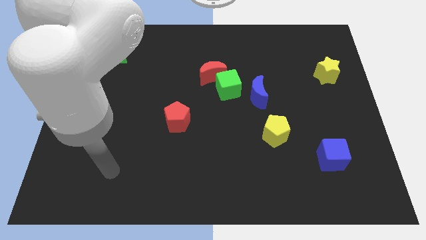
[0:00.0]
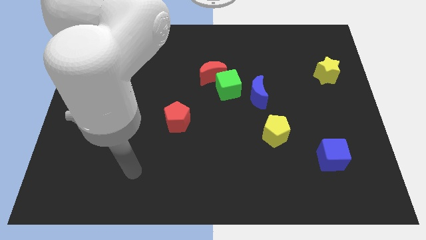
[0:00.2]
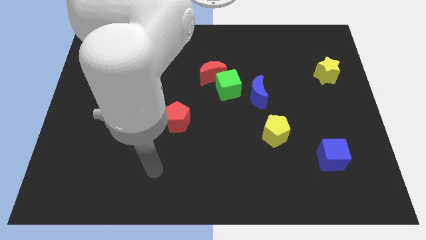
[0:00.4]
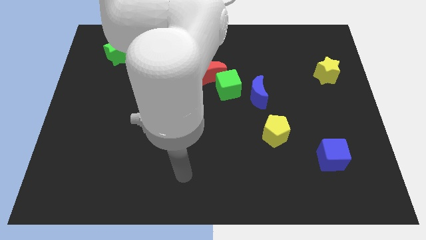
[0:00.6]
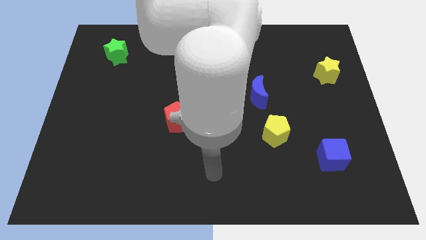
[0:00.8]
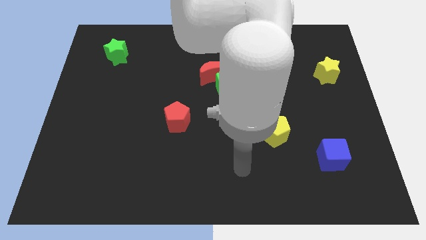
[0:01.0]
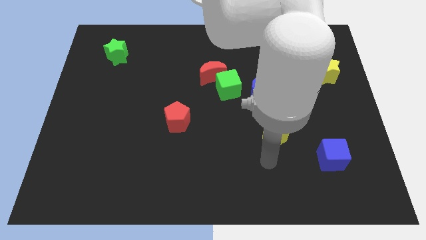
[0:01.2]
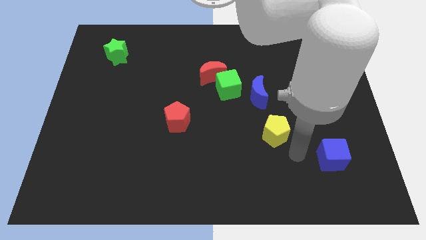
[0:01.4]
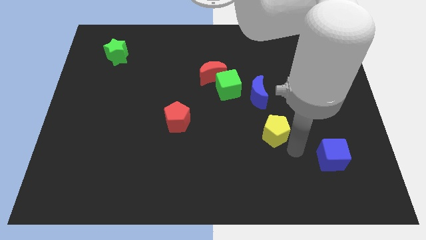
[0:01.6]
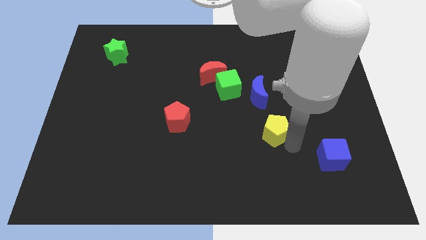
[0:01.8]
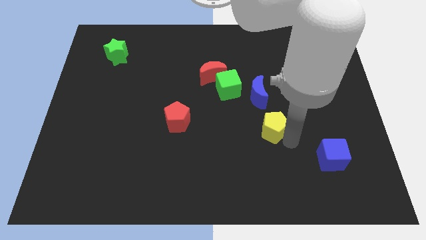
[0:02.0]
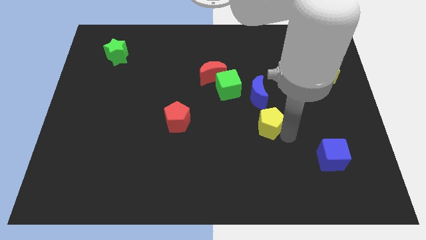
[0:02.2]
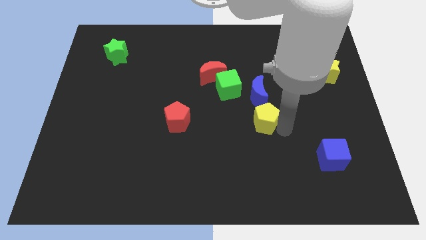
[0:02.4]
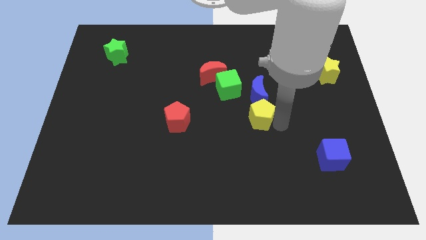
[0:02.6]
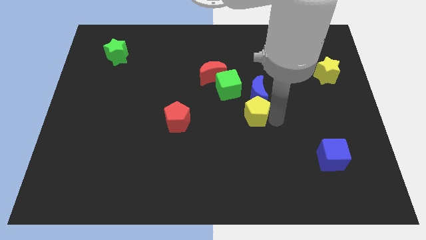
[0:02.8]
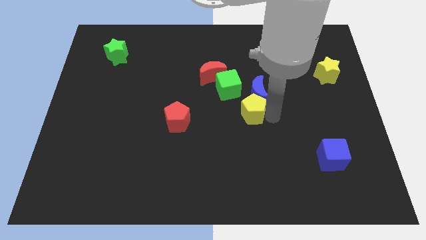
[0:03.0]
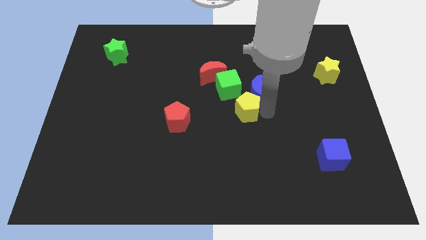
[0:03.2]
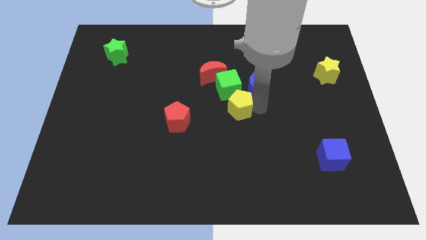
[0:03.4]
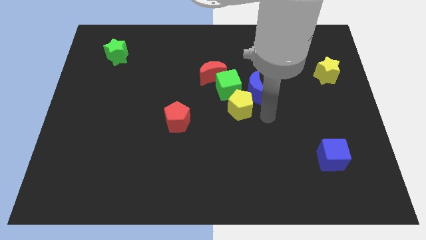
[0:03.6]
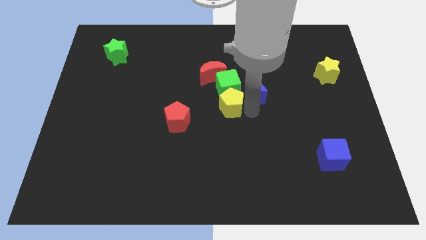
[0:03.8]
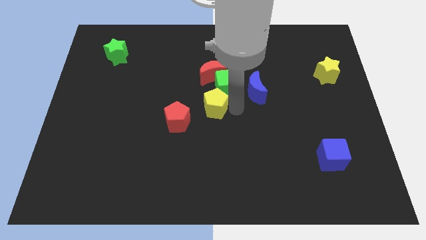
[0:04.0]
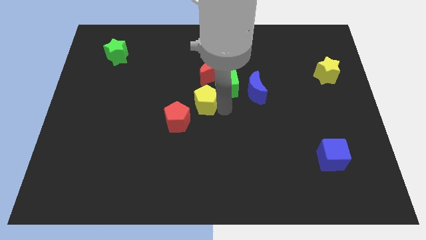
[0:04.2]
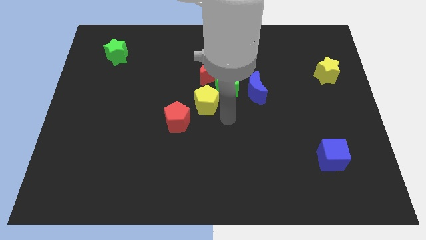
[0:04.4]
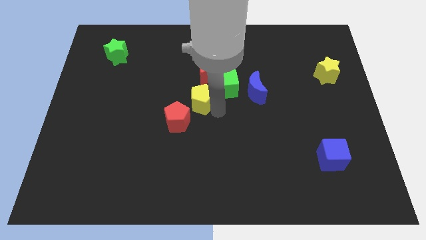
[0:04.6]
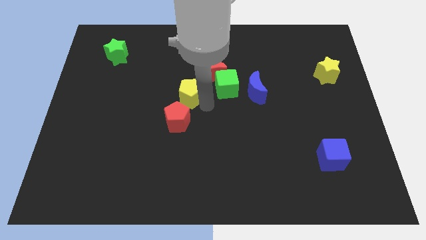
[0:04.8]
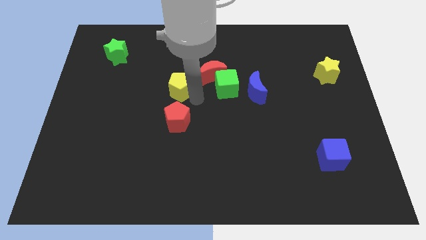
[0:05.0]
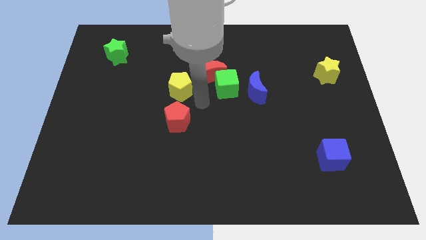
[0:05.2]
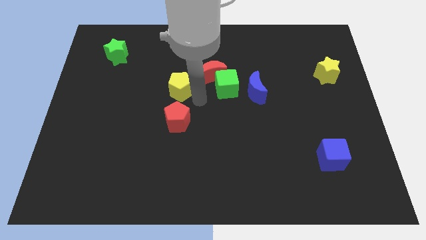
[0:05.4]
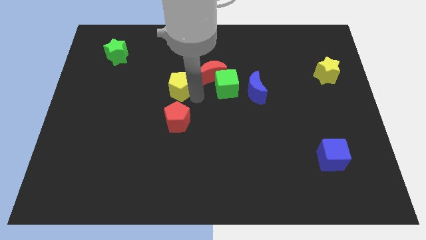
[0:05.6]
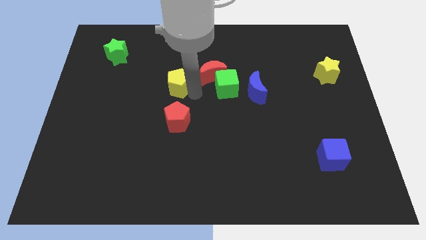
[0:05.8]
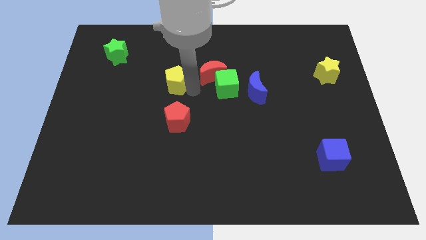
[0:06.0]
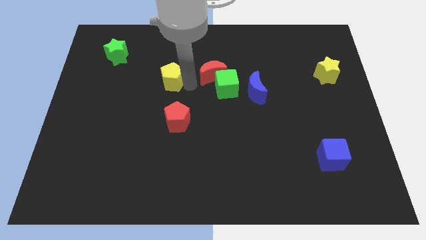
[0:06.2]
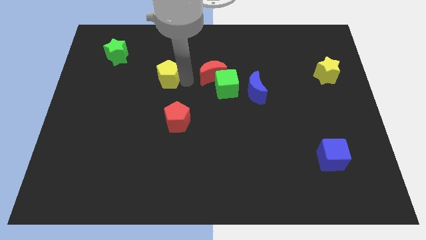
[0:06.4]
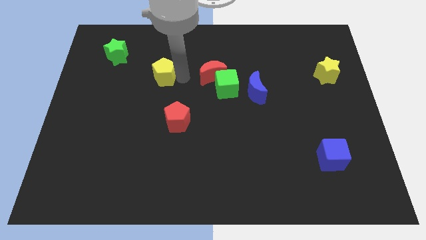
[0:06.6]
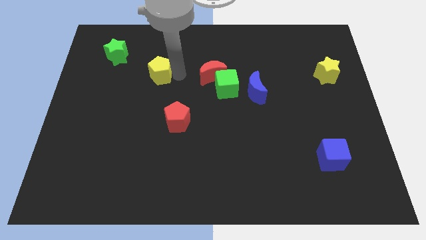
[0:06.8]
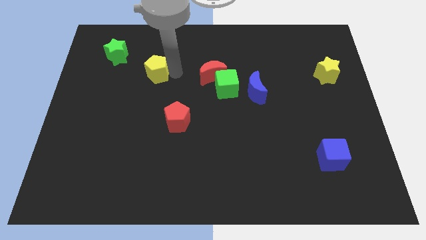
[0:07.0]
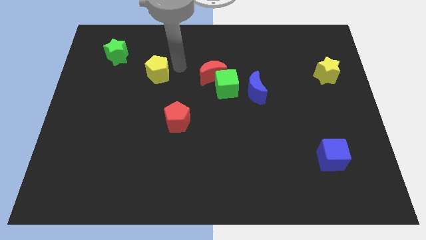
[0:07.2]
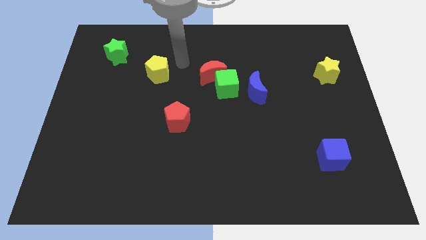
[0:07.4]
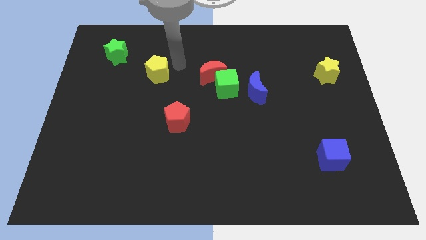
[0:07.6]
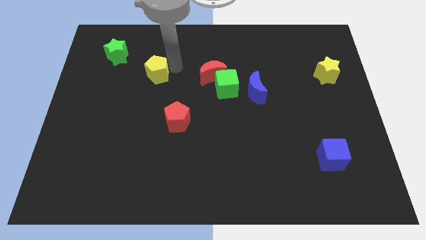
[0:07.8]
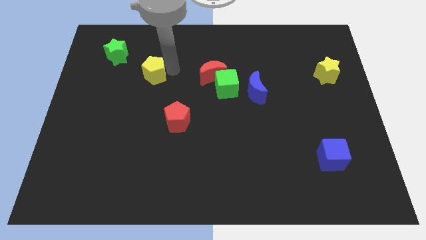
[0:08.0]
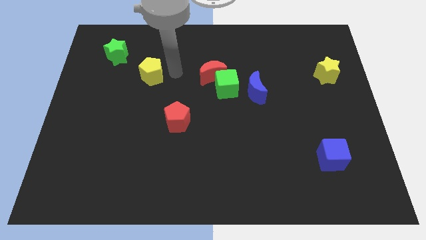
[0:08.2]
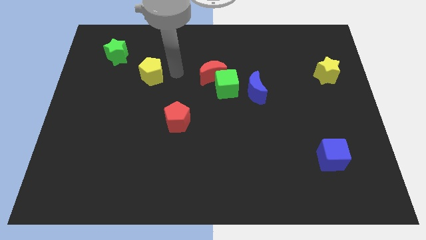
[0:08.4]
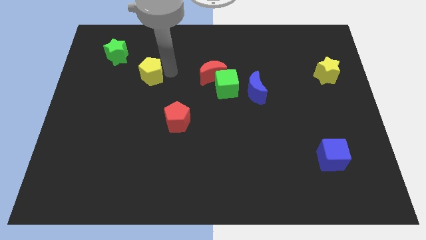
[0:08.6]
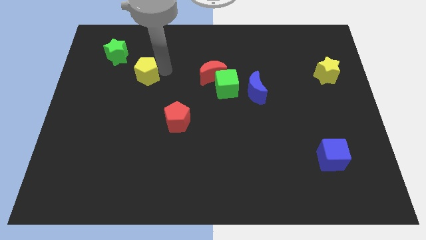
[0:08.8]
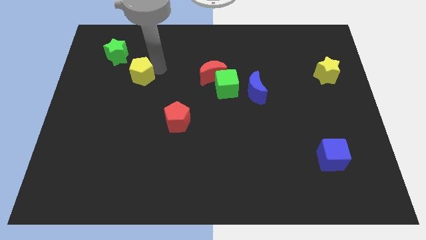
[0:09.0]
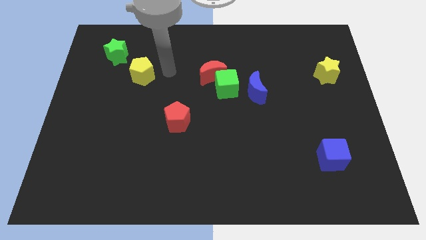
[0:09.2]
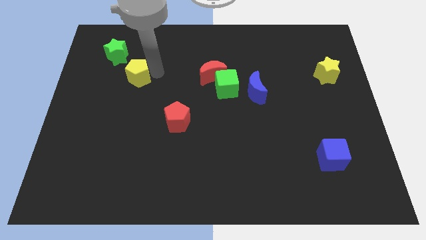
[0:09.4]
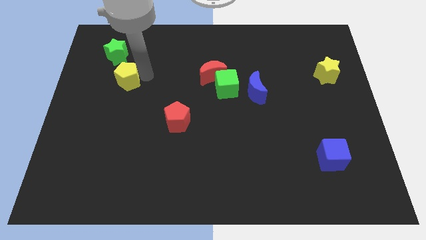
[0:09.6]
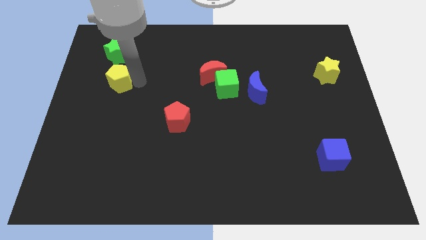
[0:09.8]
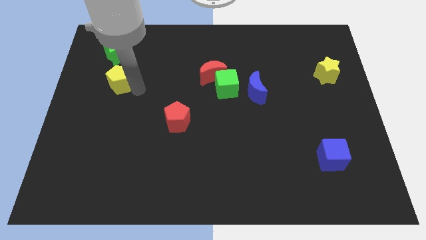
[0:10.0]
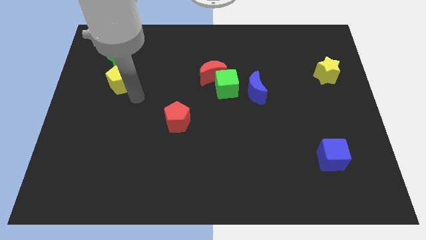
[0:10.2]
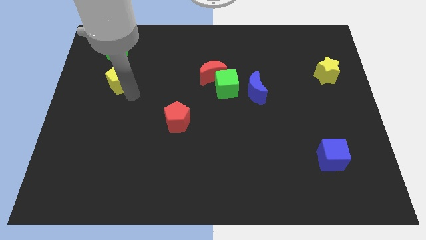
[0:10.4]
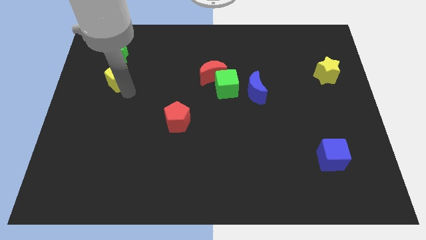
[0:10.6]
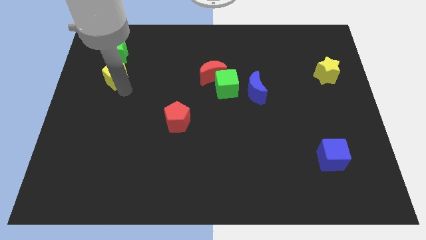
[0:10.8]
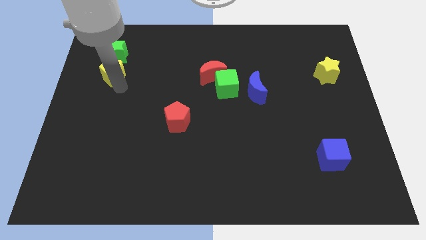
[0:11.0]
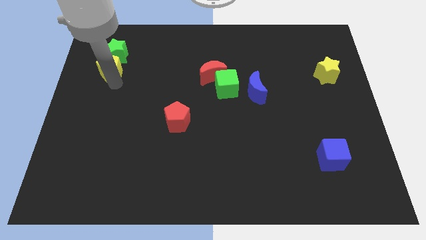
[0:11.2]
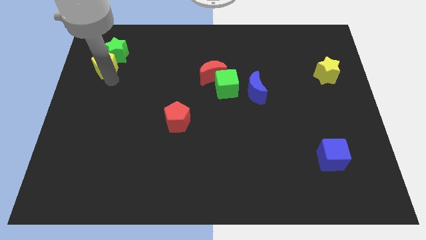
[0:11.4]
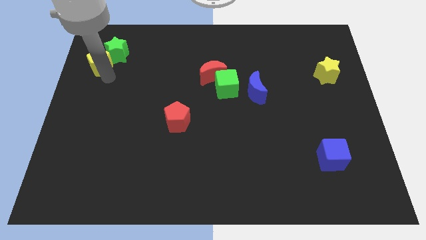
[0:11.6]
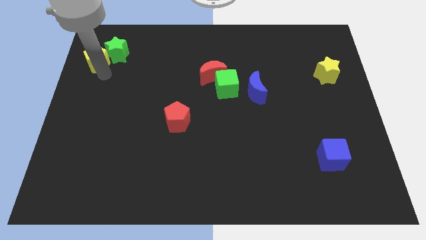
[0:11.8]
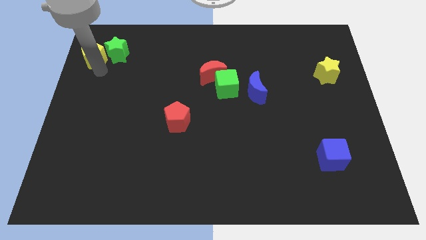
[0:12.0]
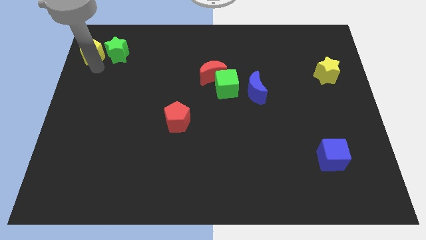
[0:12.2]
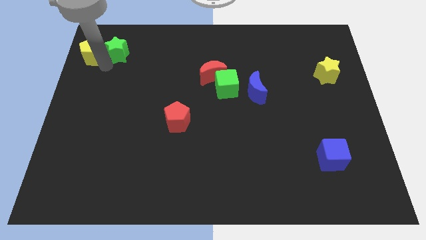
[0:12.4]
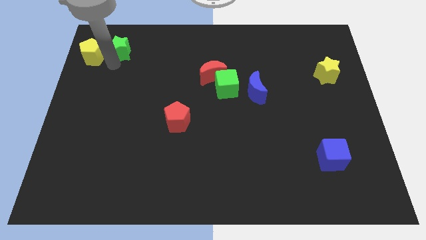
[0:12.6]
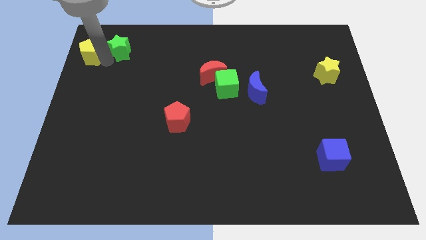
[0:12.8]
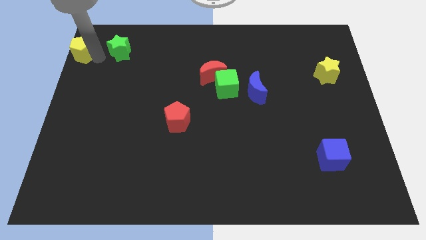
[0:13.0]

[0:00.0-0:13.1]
put the yellow pentagon to the top left of the board
